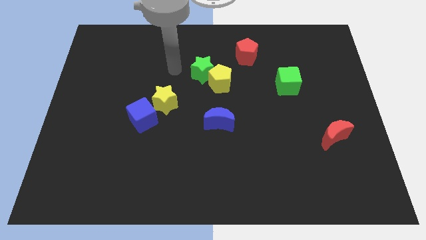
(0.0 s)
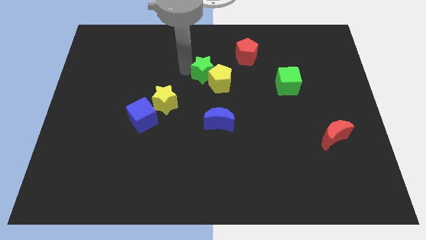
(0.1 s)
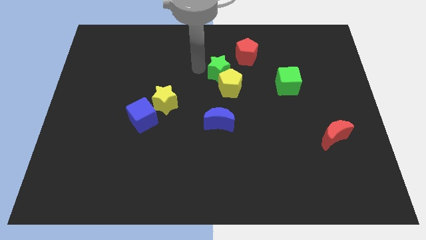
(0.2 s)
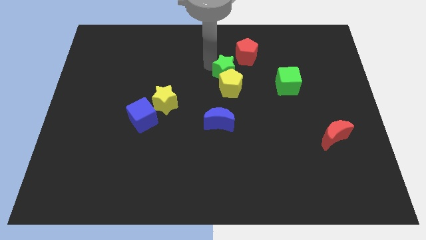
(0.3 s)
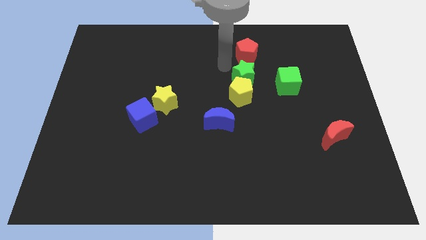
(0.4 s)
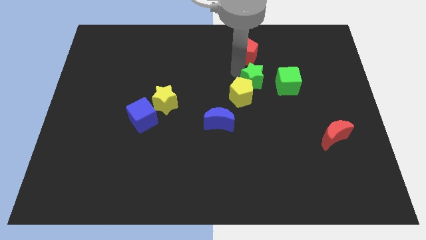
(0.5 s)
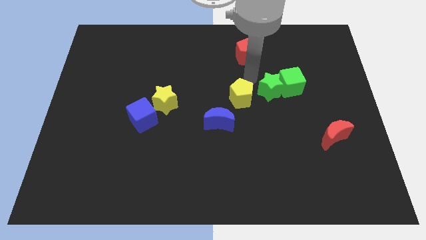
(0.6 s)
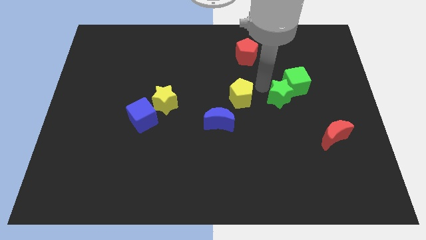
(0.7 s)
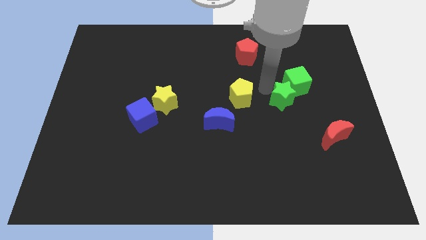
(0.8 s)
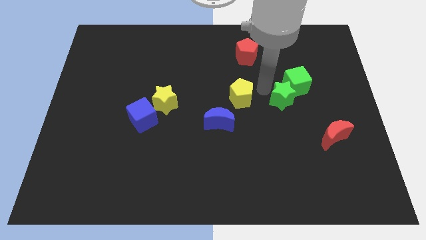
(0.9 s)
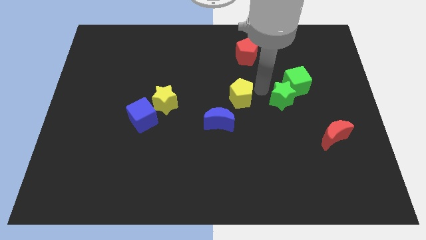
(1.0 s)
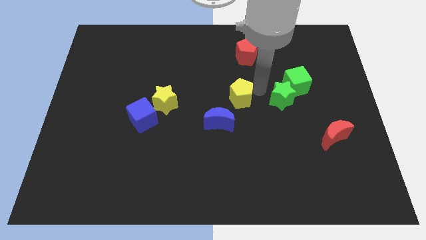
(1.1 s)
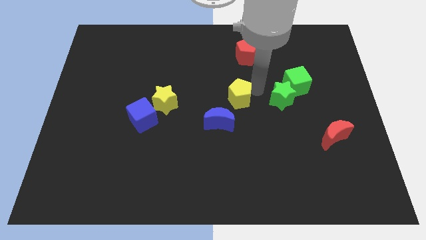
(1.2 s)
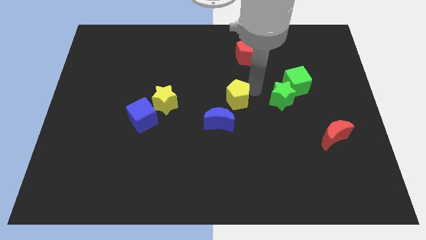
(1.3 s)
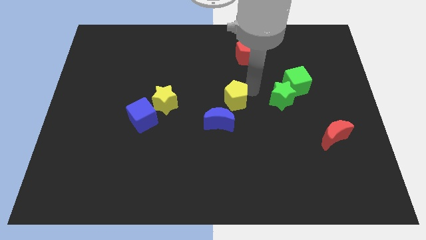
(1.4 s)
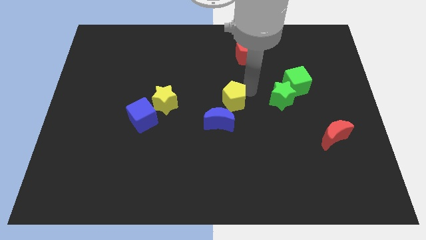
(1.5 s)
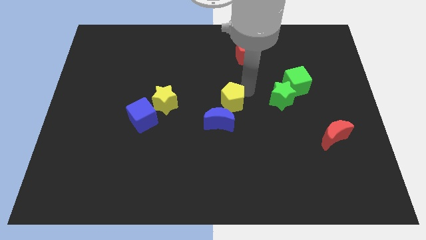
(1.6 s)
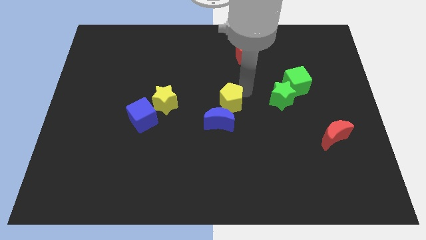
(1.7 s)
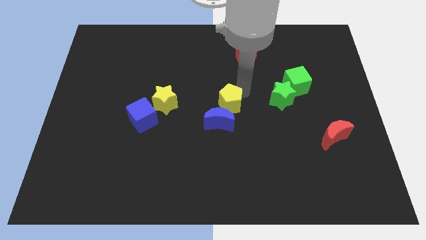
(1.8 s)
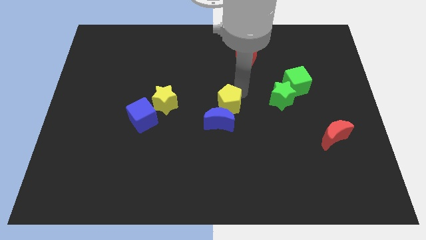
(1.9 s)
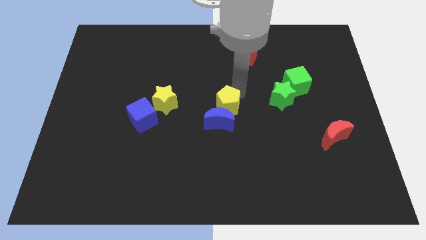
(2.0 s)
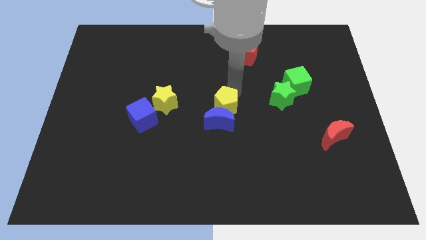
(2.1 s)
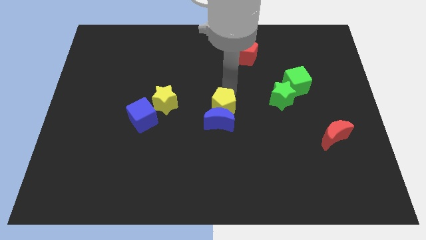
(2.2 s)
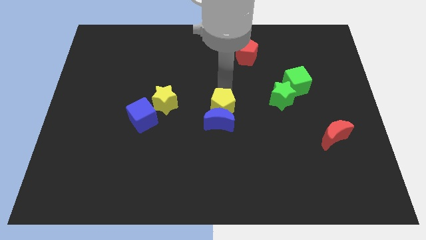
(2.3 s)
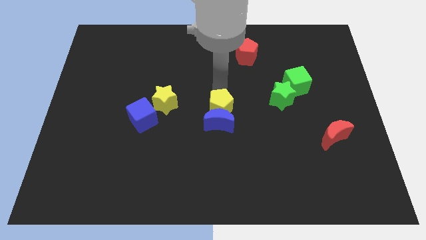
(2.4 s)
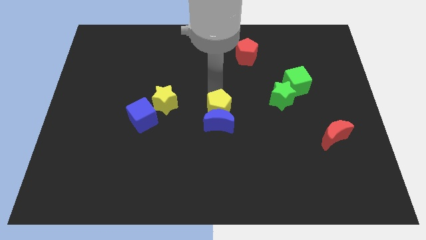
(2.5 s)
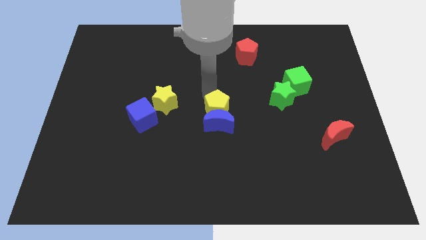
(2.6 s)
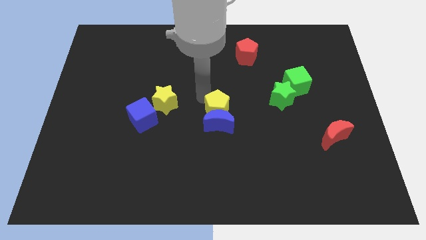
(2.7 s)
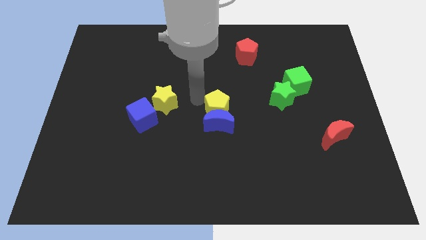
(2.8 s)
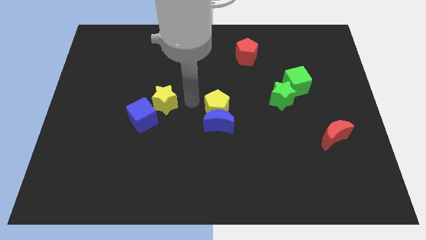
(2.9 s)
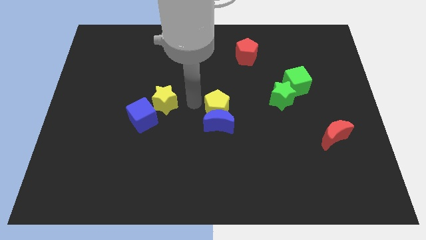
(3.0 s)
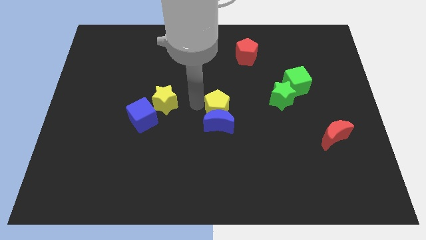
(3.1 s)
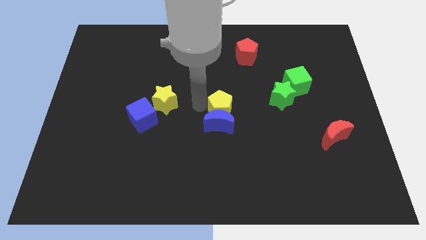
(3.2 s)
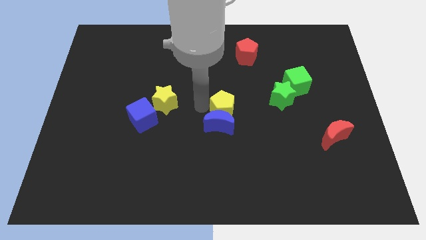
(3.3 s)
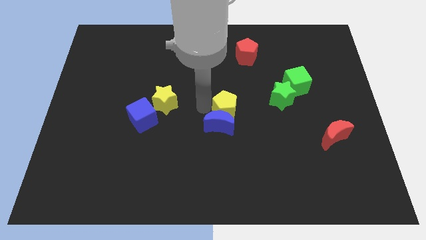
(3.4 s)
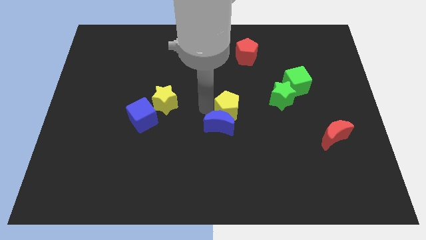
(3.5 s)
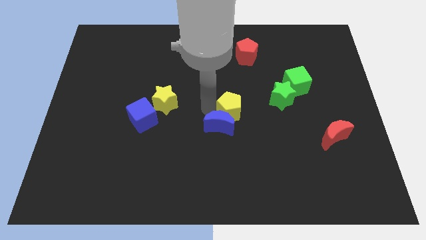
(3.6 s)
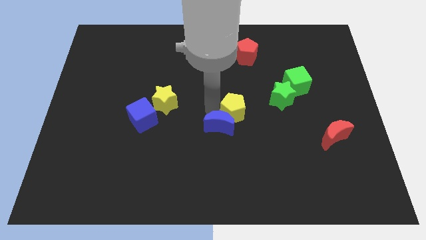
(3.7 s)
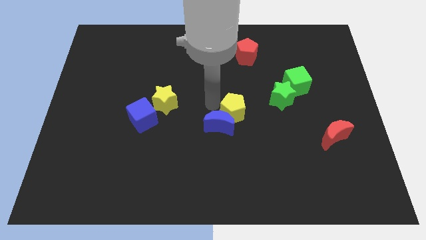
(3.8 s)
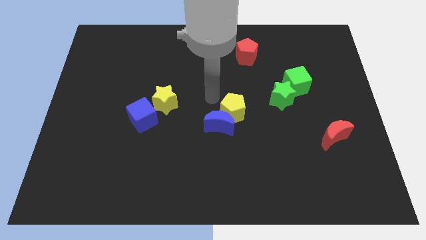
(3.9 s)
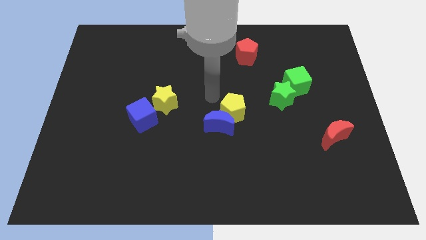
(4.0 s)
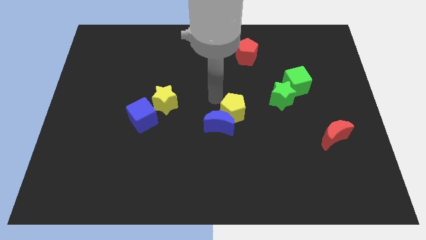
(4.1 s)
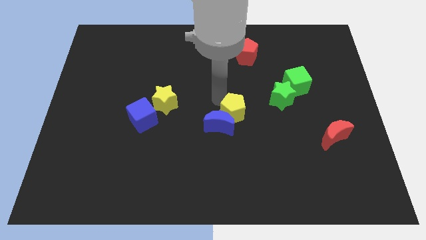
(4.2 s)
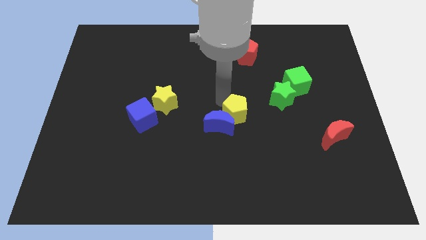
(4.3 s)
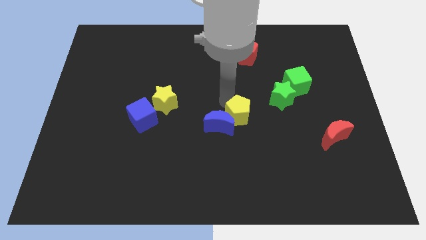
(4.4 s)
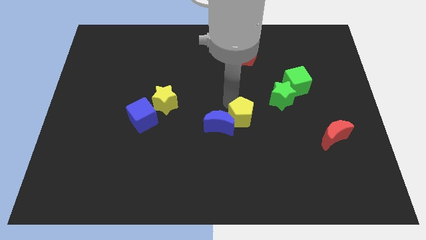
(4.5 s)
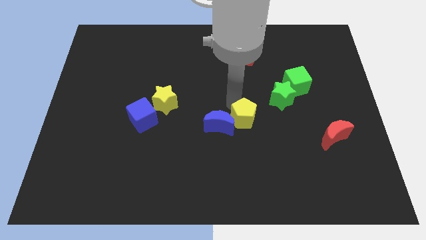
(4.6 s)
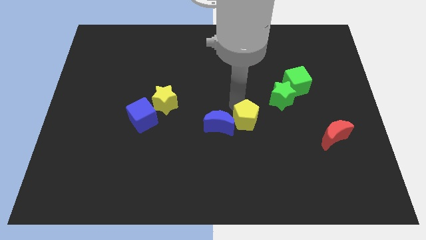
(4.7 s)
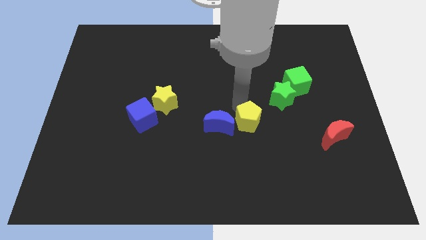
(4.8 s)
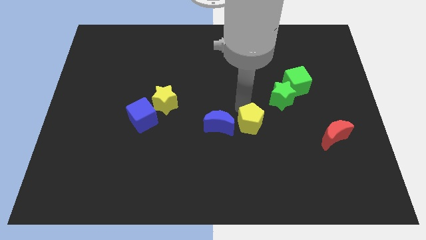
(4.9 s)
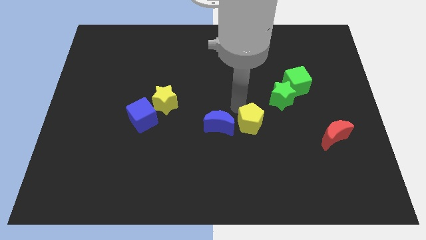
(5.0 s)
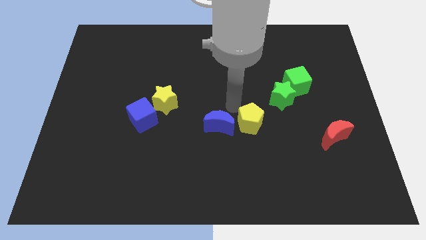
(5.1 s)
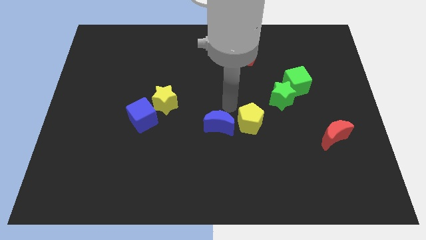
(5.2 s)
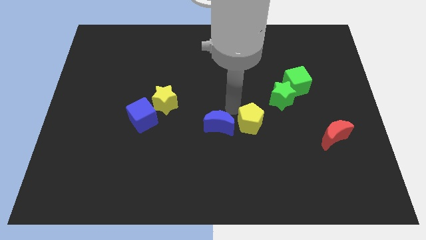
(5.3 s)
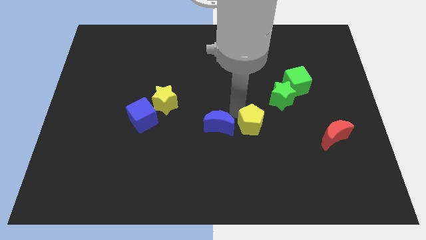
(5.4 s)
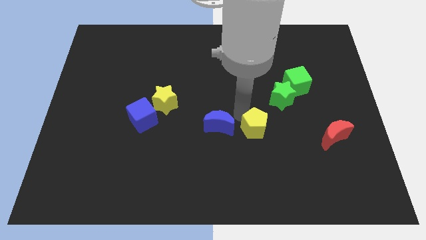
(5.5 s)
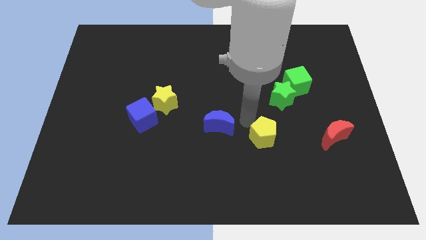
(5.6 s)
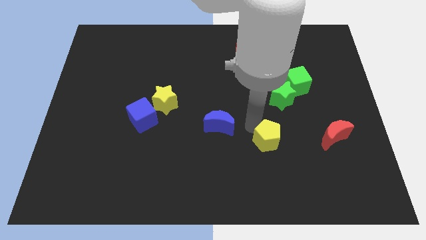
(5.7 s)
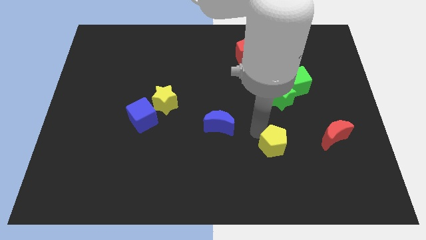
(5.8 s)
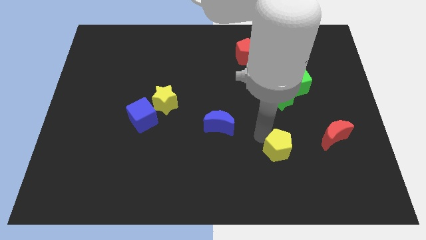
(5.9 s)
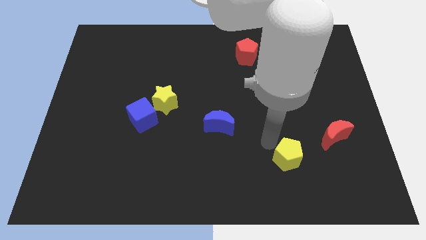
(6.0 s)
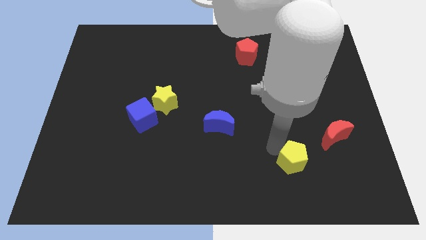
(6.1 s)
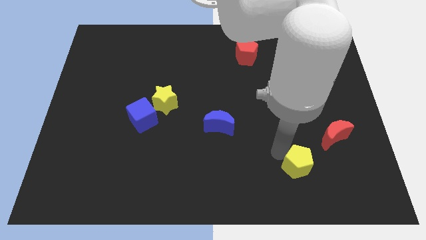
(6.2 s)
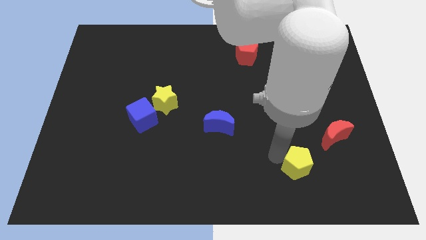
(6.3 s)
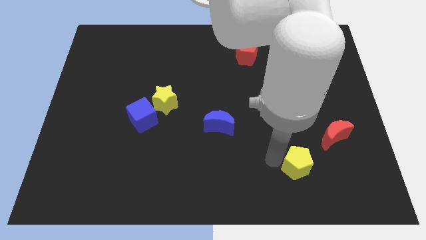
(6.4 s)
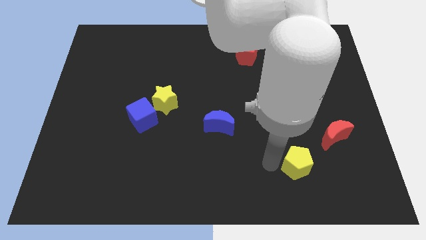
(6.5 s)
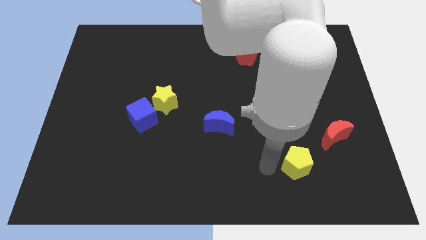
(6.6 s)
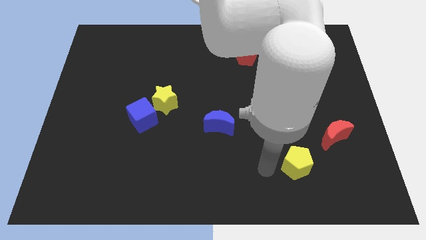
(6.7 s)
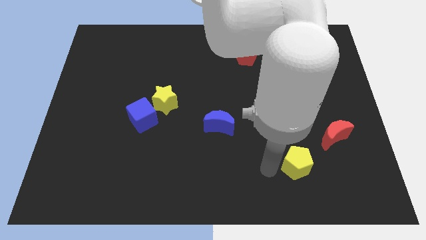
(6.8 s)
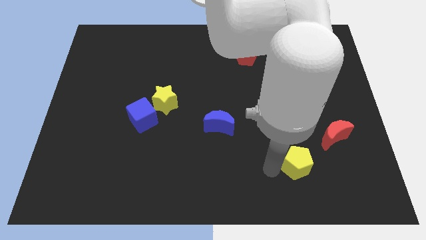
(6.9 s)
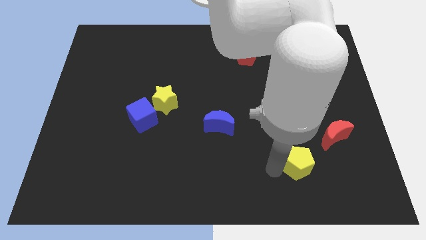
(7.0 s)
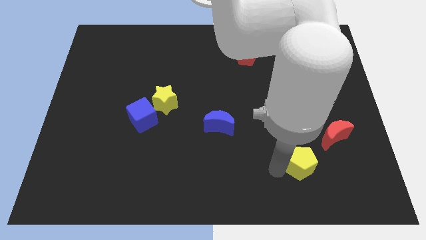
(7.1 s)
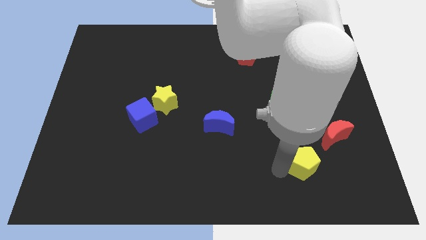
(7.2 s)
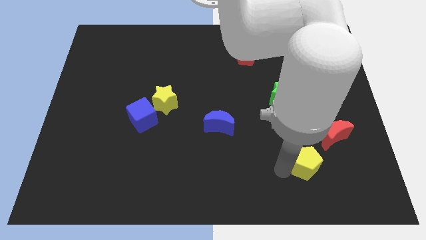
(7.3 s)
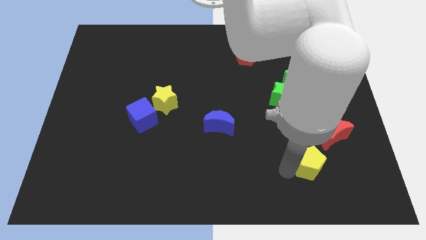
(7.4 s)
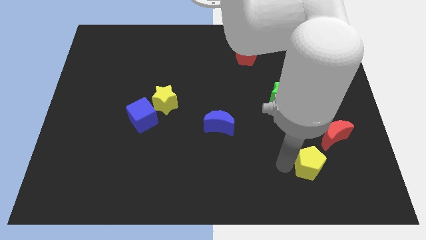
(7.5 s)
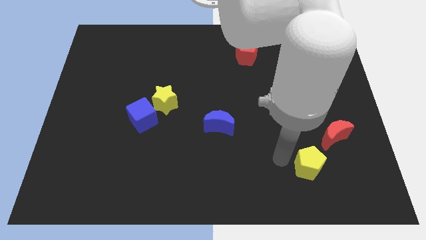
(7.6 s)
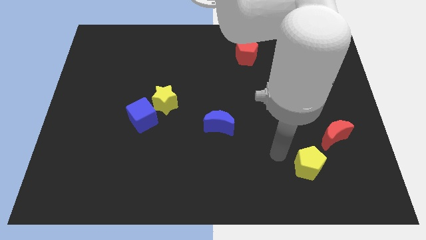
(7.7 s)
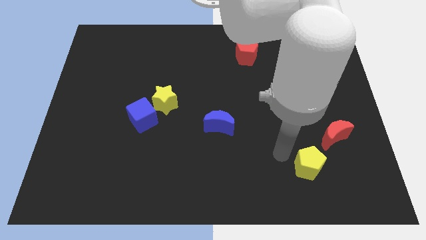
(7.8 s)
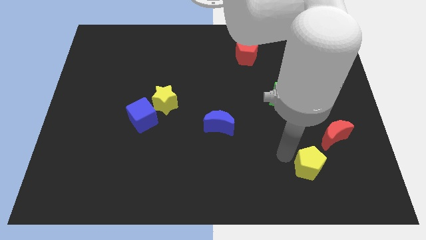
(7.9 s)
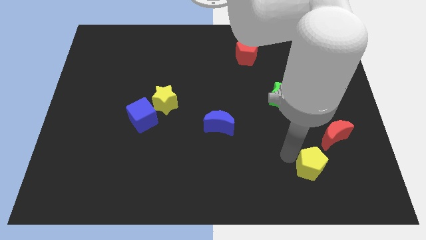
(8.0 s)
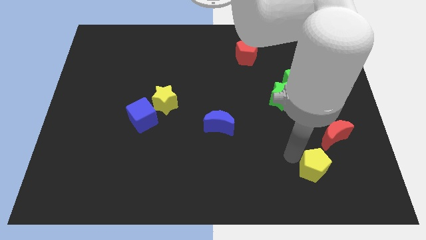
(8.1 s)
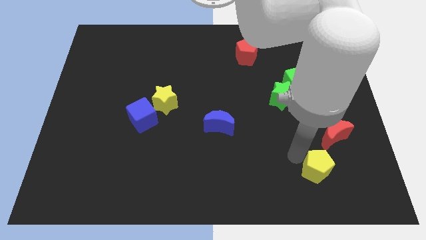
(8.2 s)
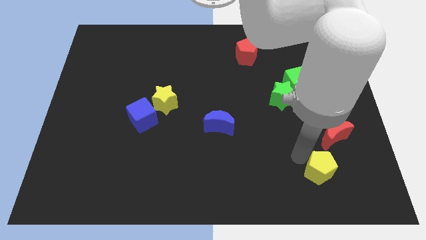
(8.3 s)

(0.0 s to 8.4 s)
push the yellow pentagon to the bottom side of the red moon
